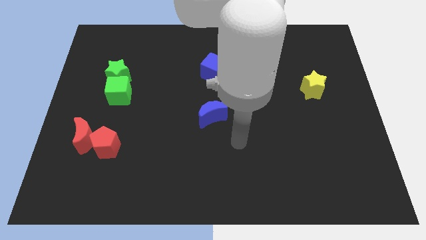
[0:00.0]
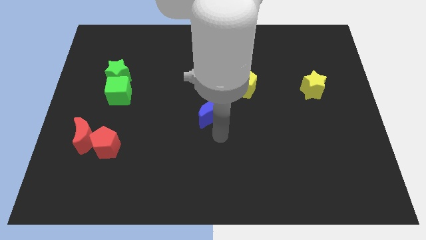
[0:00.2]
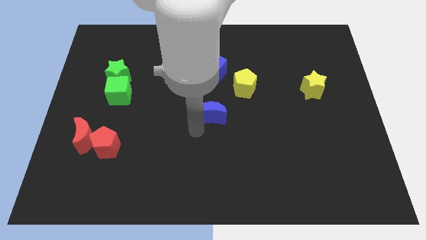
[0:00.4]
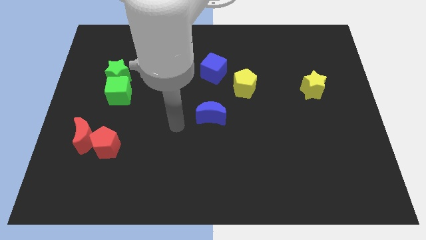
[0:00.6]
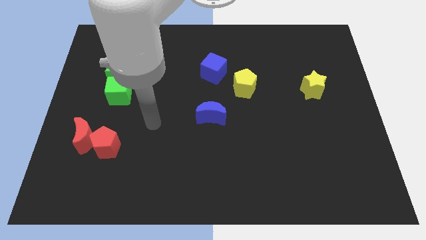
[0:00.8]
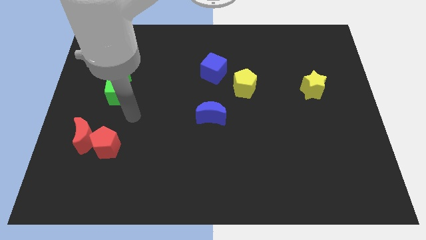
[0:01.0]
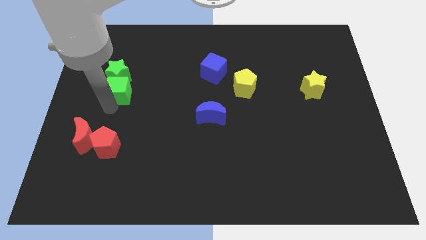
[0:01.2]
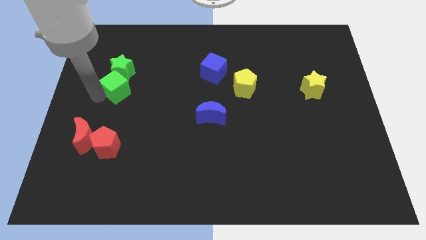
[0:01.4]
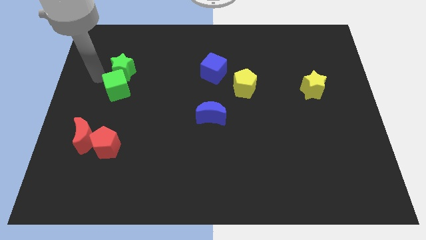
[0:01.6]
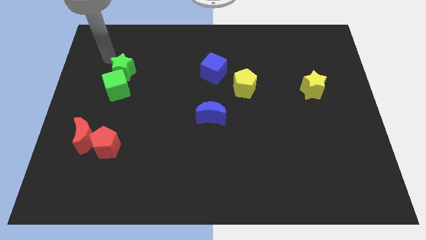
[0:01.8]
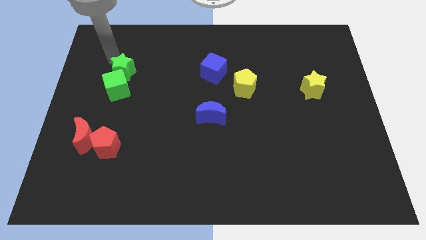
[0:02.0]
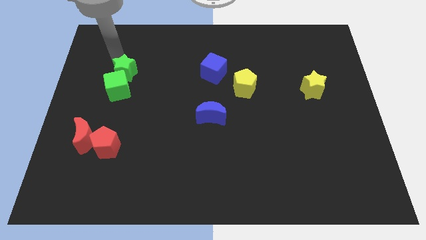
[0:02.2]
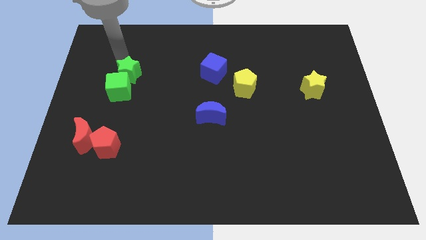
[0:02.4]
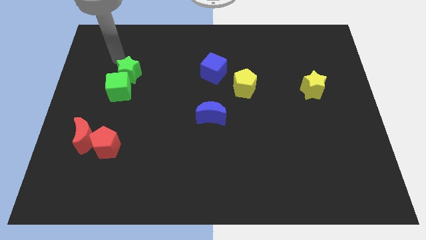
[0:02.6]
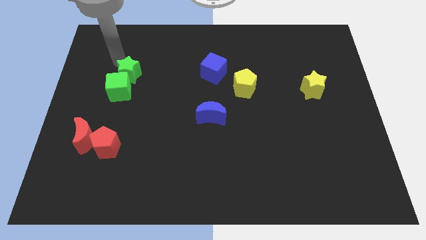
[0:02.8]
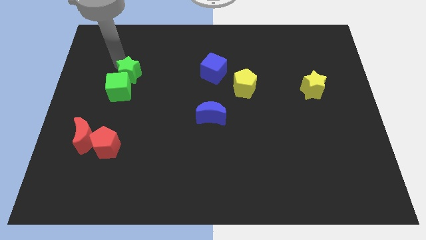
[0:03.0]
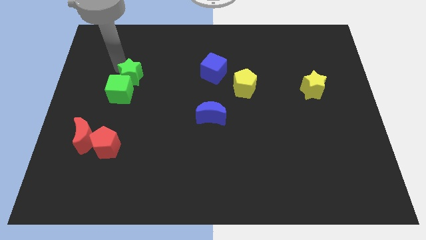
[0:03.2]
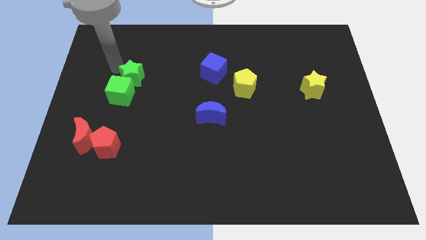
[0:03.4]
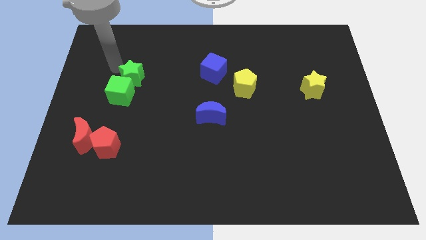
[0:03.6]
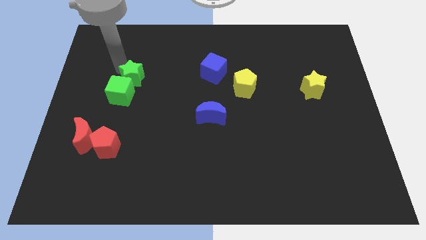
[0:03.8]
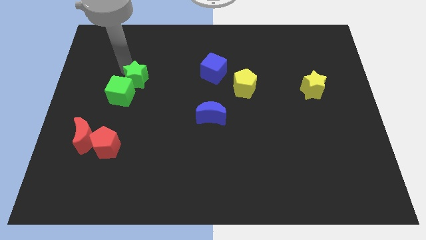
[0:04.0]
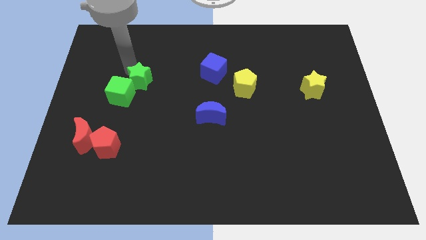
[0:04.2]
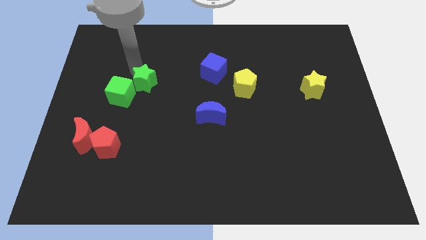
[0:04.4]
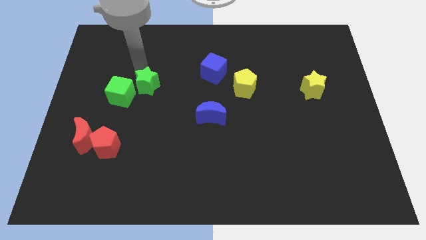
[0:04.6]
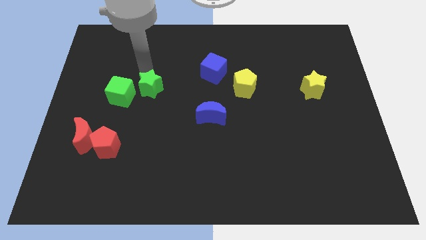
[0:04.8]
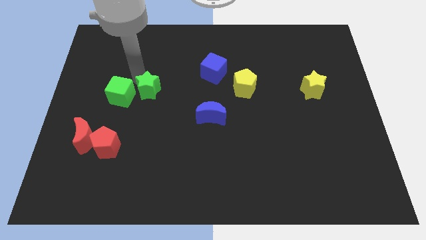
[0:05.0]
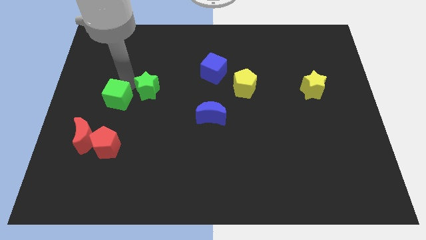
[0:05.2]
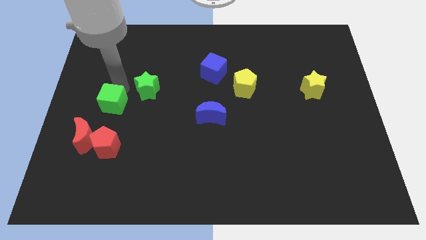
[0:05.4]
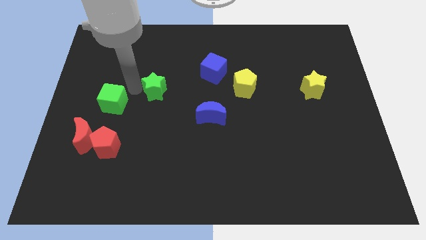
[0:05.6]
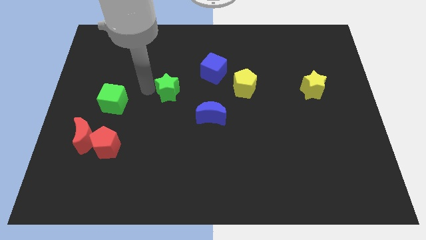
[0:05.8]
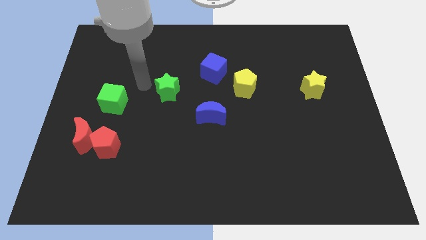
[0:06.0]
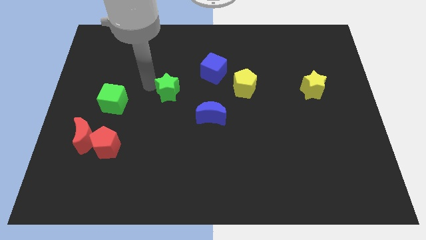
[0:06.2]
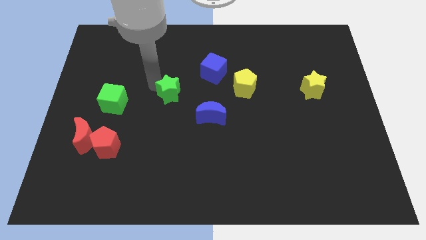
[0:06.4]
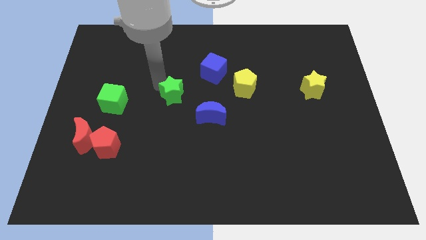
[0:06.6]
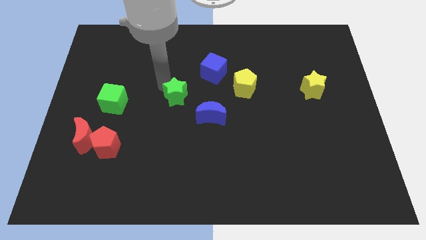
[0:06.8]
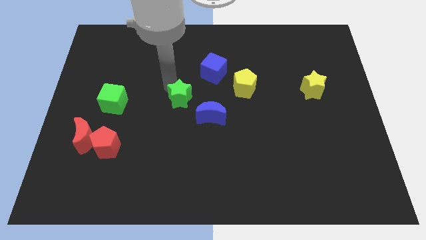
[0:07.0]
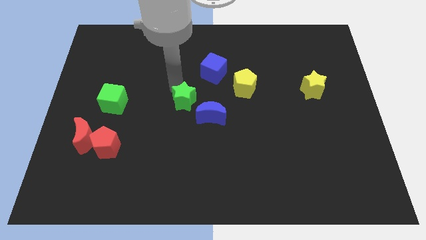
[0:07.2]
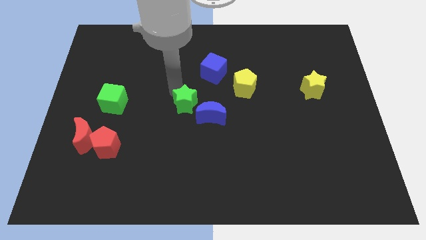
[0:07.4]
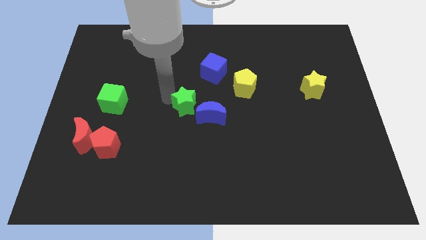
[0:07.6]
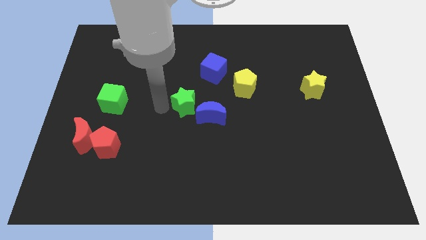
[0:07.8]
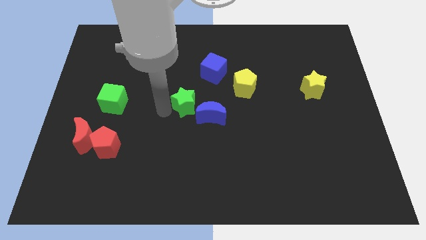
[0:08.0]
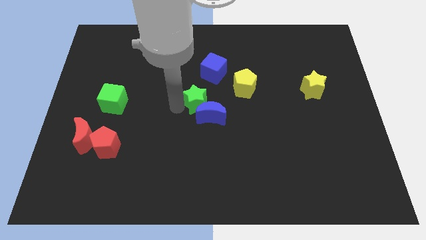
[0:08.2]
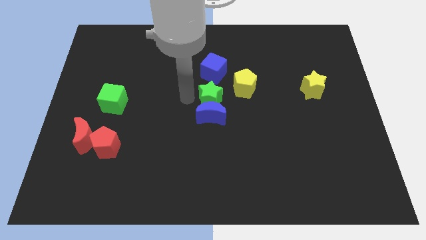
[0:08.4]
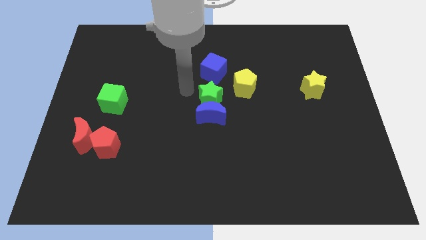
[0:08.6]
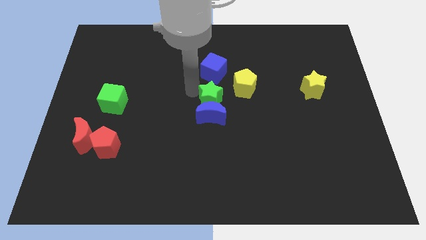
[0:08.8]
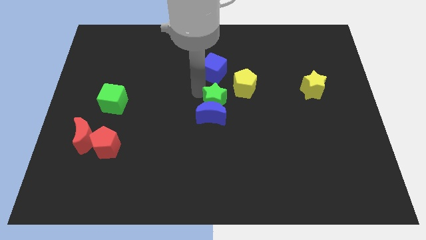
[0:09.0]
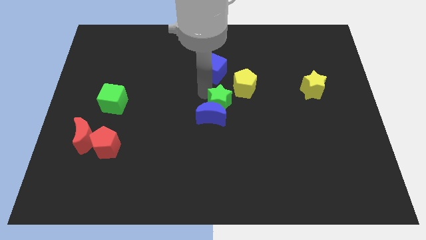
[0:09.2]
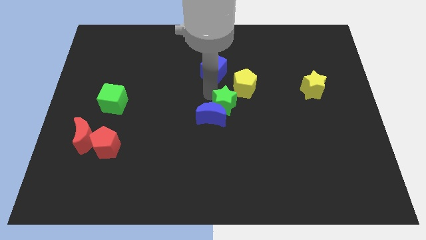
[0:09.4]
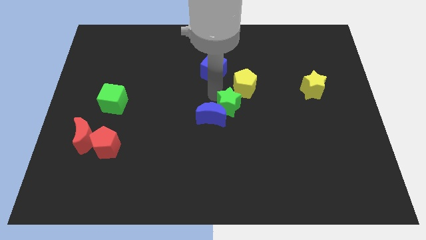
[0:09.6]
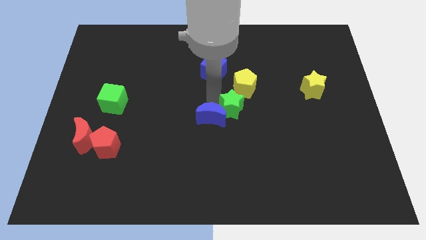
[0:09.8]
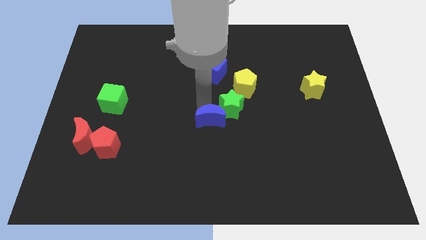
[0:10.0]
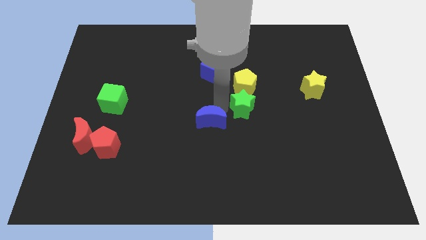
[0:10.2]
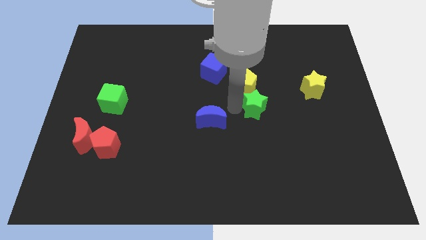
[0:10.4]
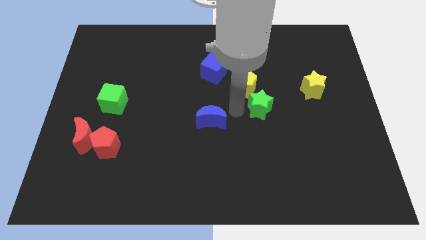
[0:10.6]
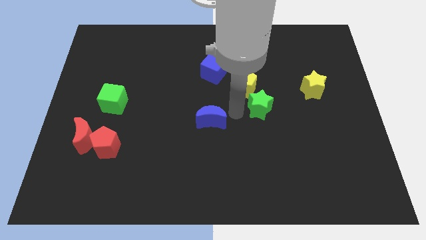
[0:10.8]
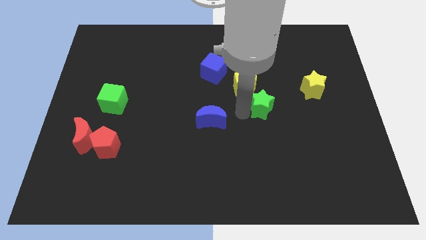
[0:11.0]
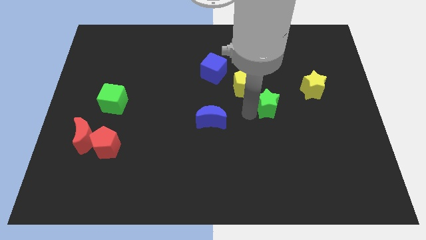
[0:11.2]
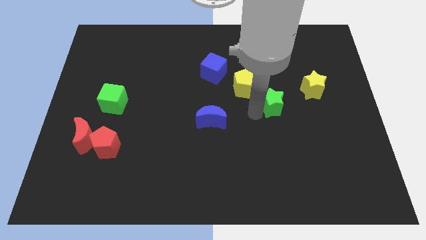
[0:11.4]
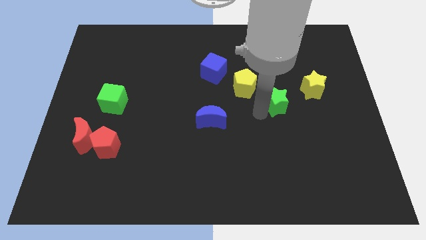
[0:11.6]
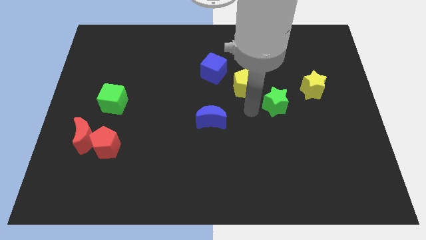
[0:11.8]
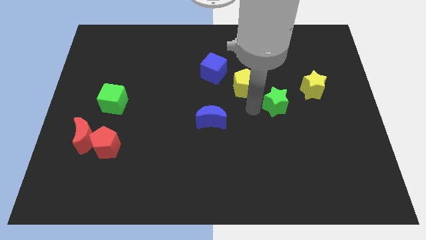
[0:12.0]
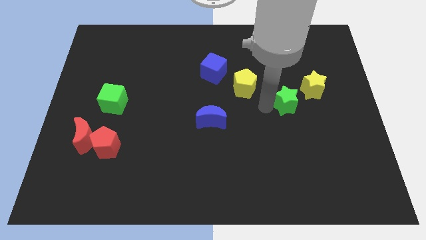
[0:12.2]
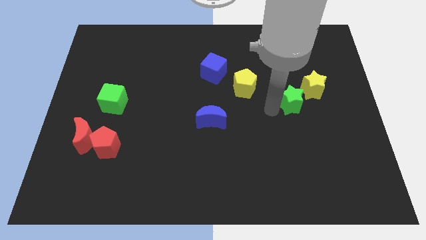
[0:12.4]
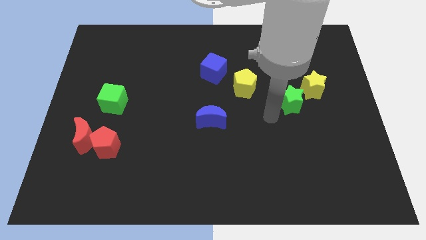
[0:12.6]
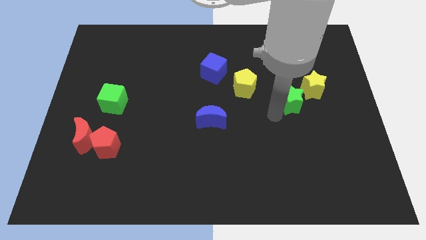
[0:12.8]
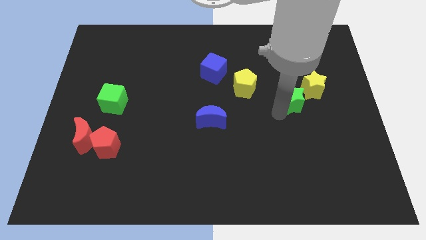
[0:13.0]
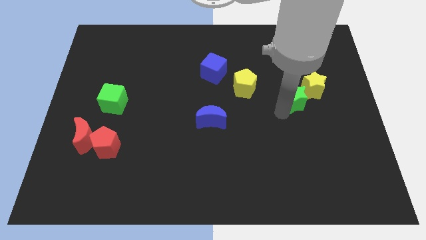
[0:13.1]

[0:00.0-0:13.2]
slide the green star to the yellow star
